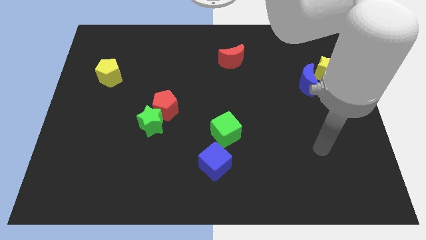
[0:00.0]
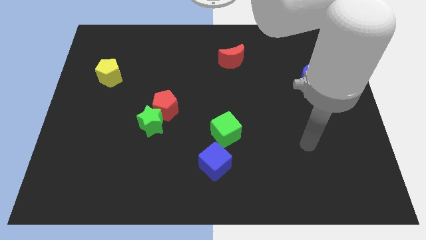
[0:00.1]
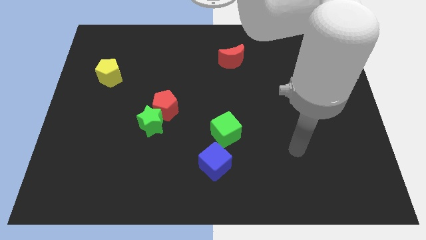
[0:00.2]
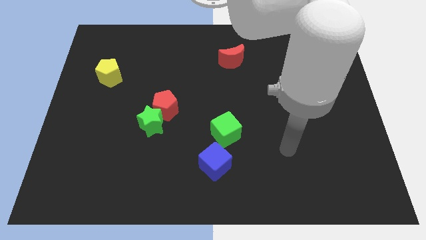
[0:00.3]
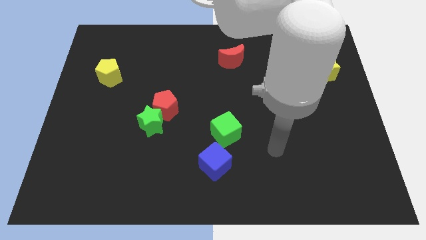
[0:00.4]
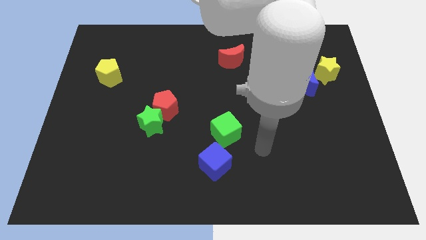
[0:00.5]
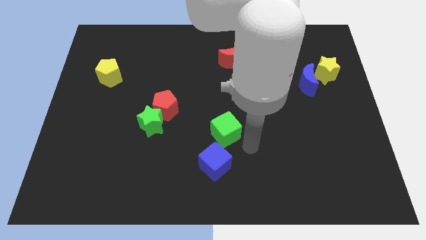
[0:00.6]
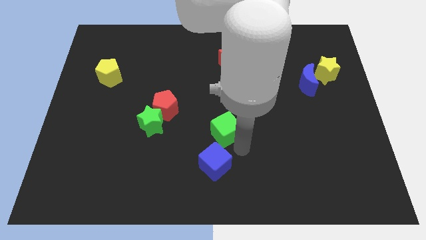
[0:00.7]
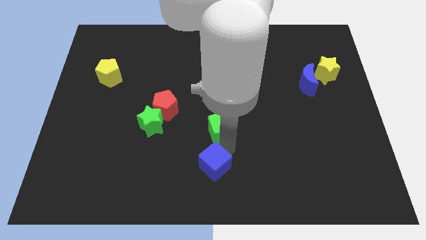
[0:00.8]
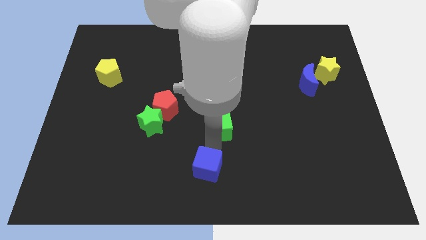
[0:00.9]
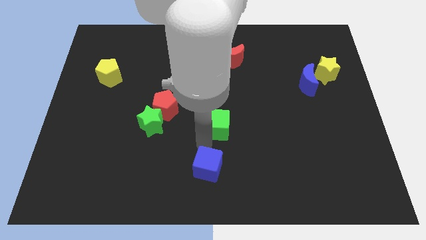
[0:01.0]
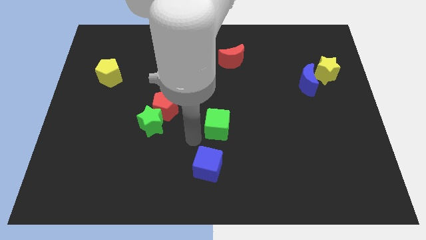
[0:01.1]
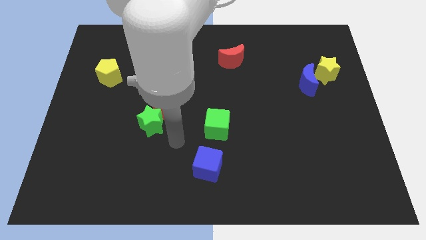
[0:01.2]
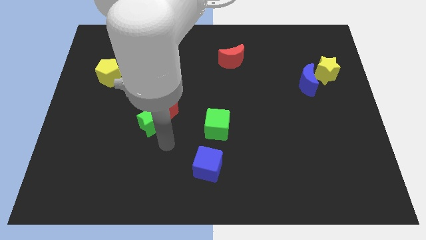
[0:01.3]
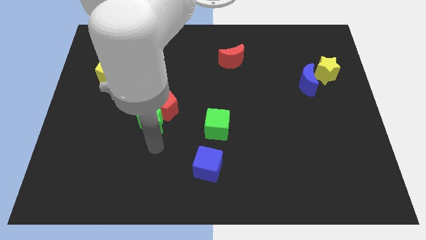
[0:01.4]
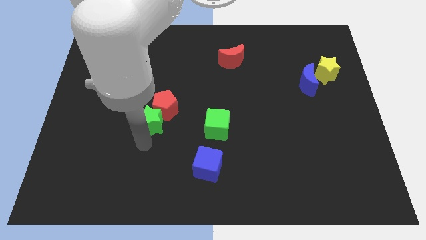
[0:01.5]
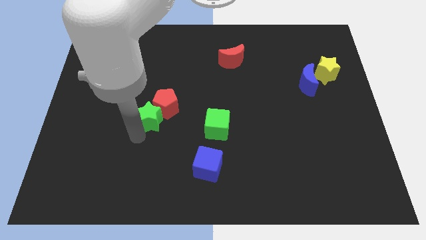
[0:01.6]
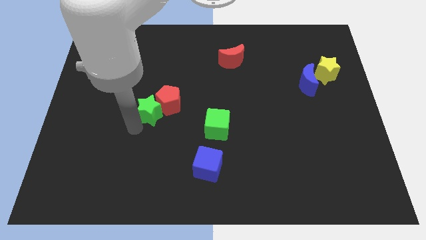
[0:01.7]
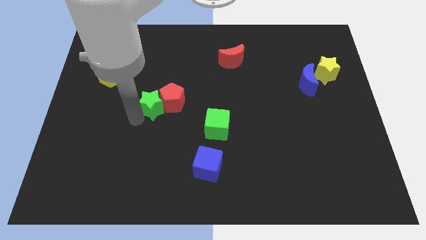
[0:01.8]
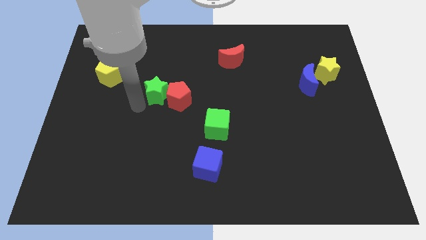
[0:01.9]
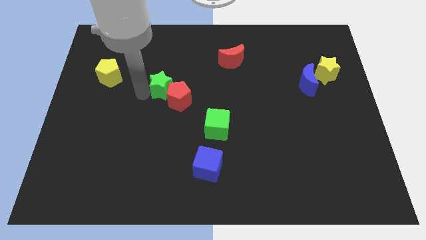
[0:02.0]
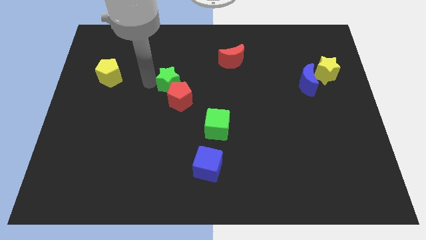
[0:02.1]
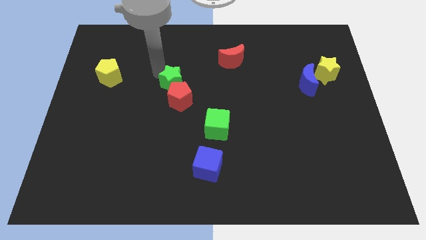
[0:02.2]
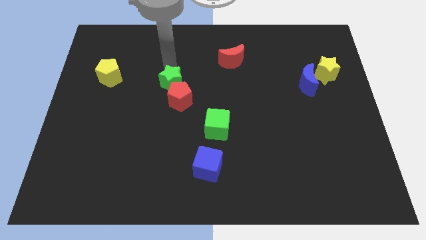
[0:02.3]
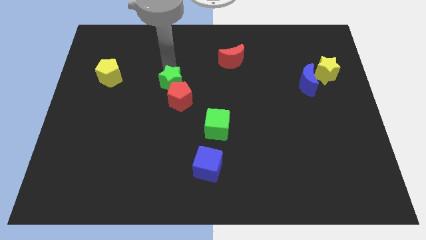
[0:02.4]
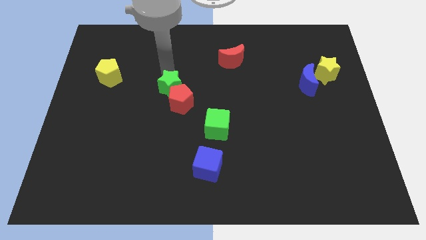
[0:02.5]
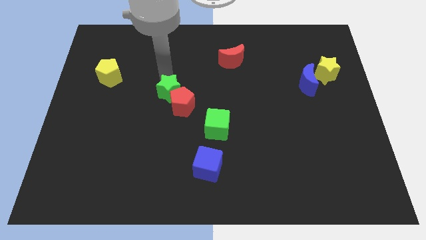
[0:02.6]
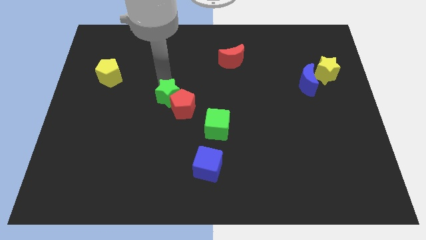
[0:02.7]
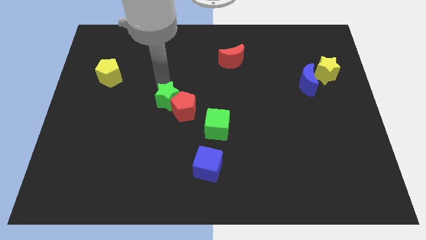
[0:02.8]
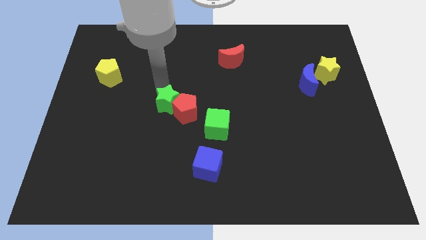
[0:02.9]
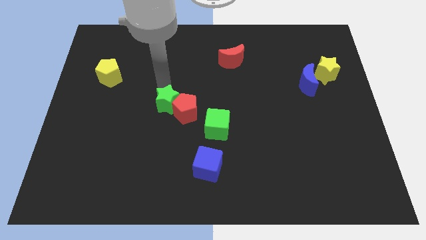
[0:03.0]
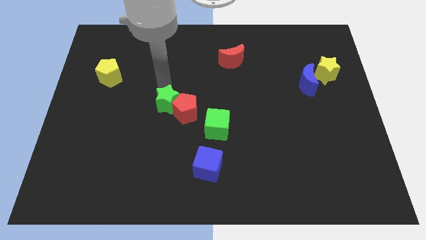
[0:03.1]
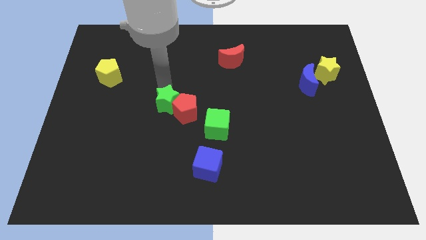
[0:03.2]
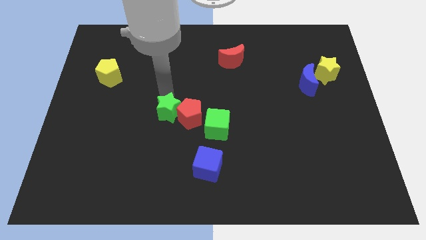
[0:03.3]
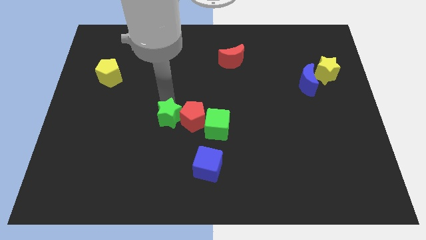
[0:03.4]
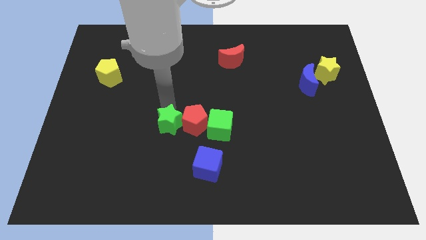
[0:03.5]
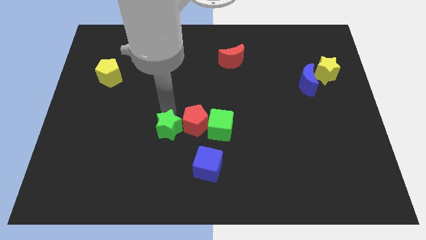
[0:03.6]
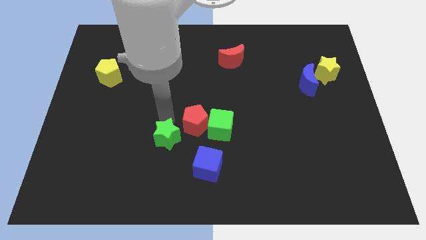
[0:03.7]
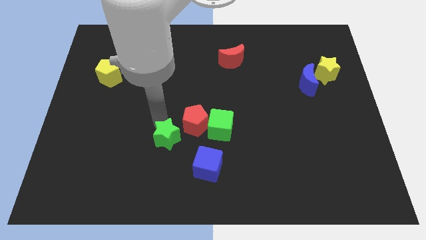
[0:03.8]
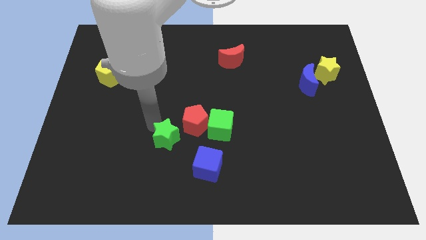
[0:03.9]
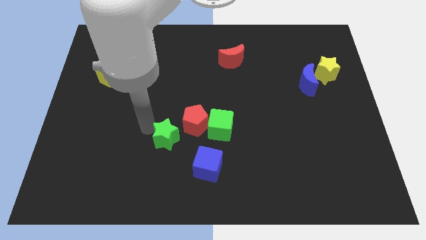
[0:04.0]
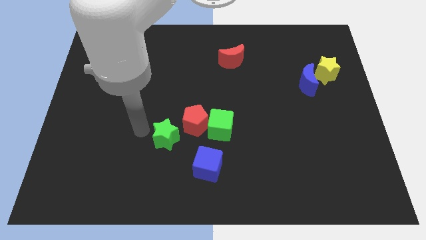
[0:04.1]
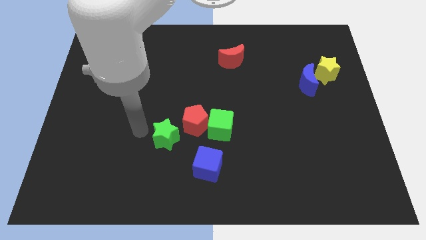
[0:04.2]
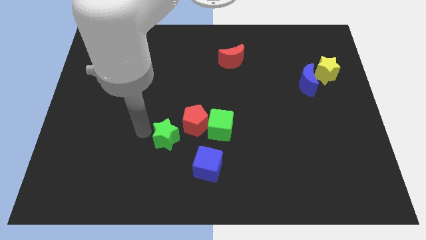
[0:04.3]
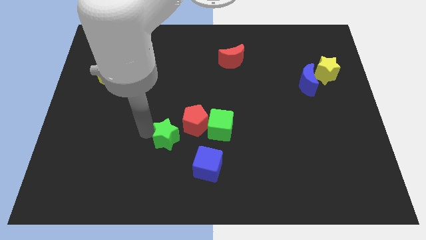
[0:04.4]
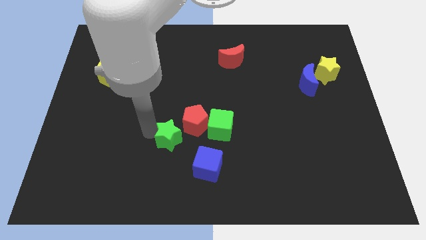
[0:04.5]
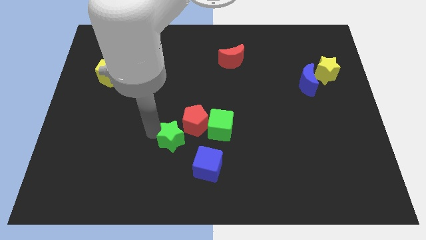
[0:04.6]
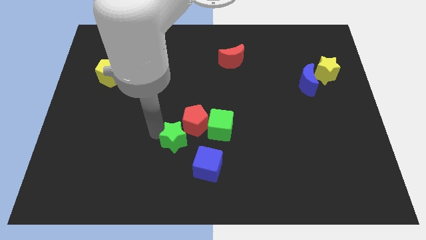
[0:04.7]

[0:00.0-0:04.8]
slide the green star to the bottom left side of the green cube

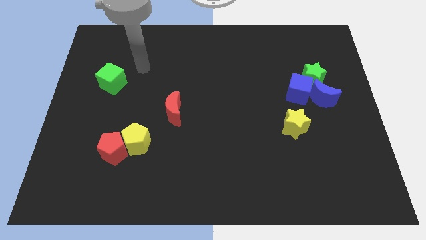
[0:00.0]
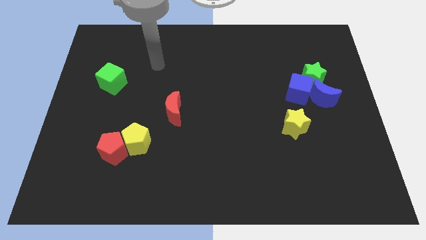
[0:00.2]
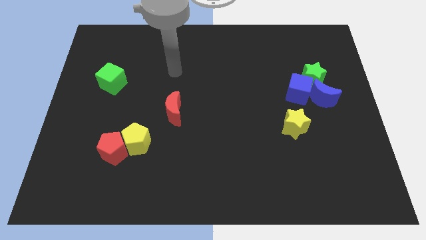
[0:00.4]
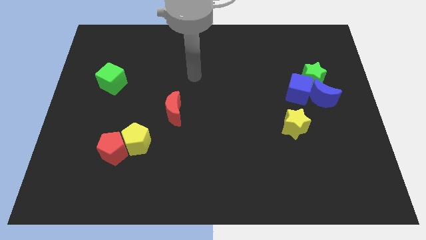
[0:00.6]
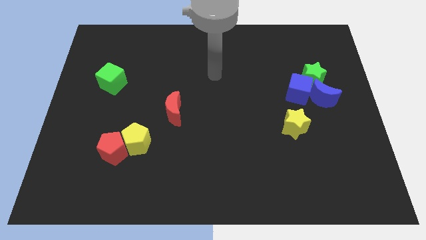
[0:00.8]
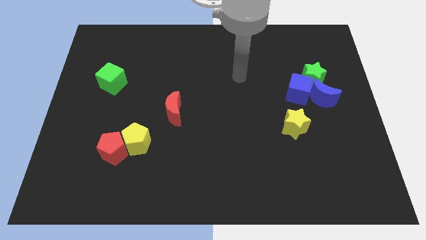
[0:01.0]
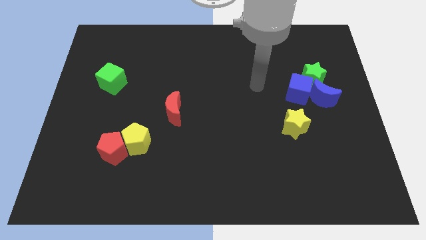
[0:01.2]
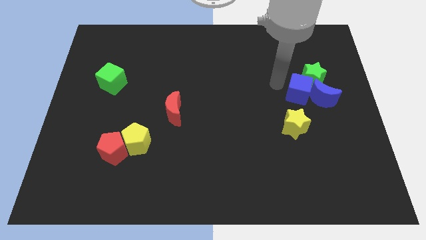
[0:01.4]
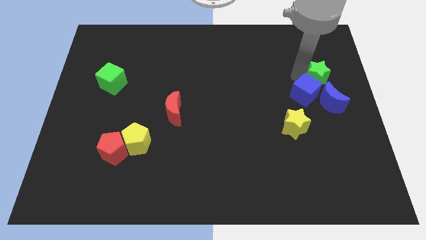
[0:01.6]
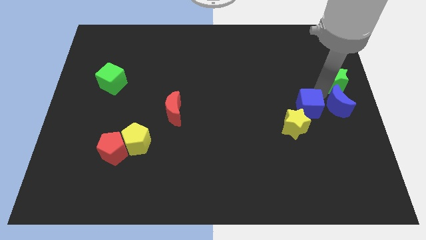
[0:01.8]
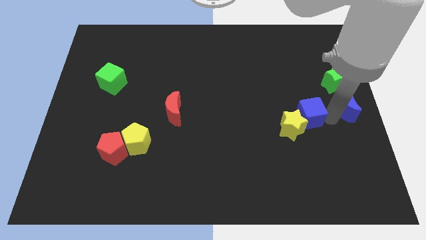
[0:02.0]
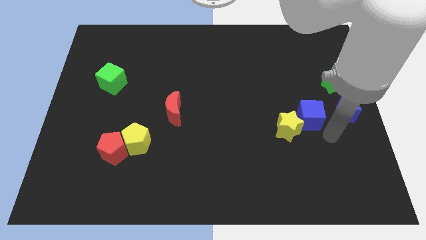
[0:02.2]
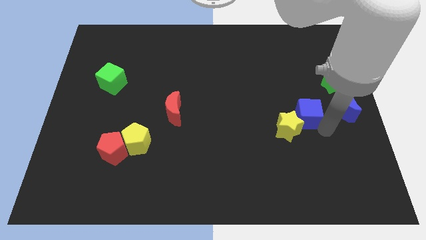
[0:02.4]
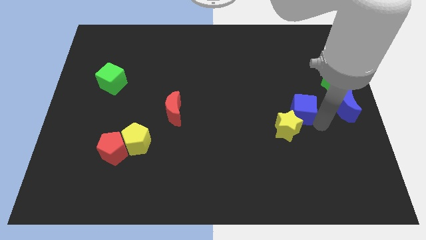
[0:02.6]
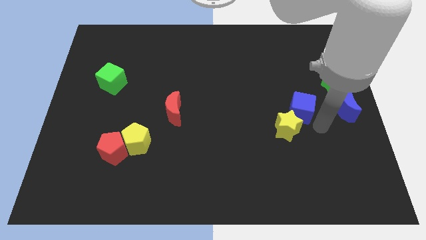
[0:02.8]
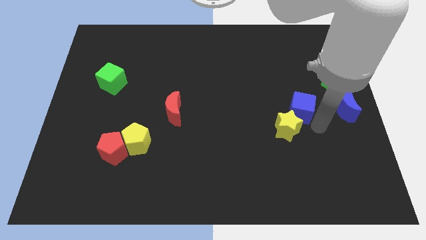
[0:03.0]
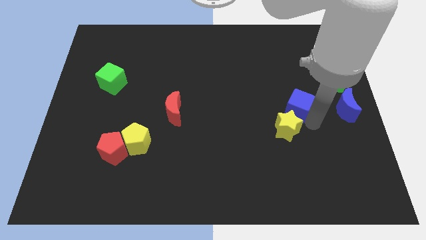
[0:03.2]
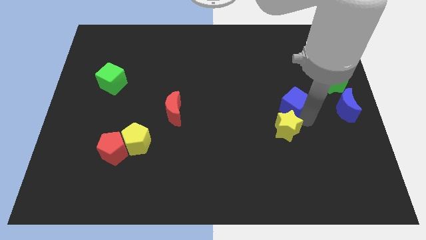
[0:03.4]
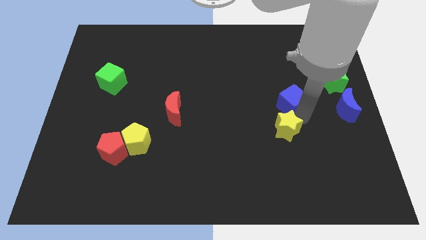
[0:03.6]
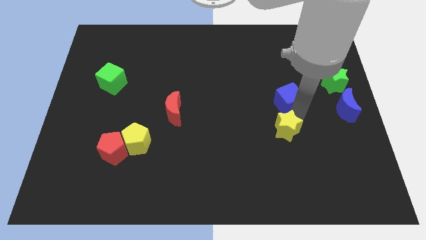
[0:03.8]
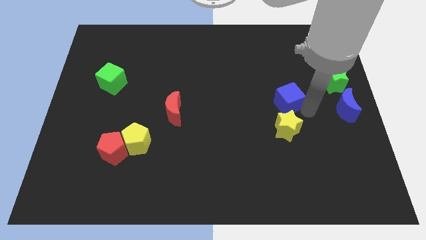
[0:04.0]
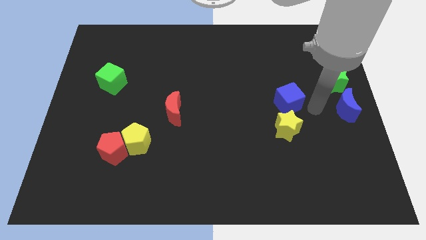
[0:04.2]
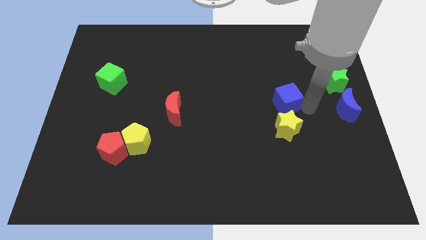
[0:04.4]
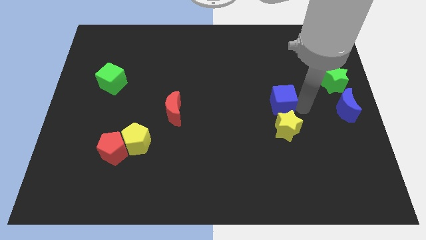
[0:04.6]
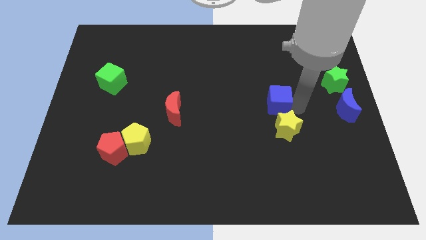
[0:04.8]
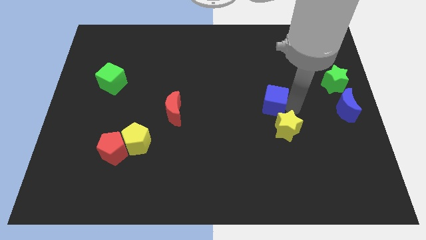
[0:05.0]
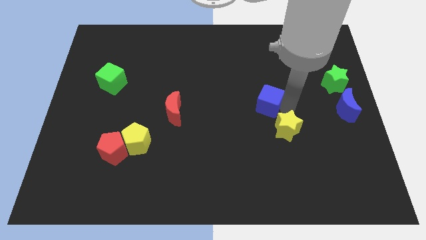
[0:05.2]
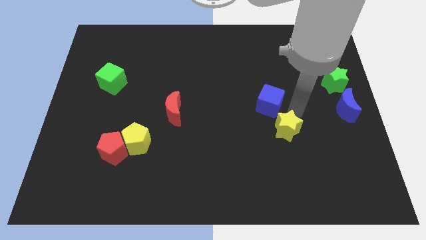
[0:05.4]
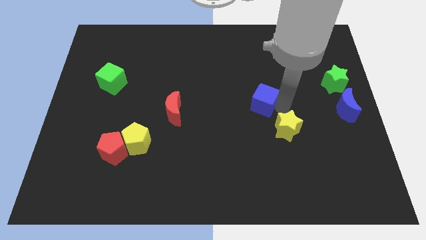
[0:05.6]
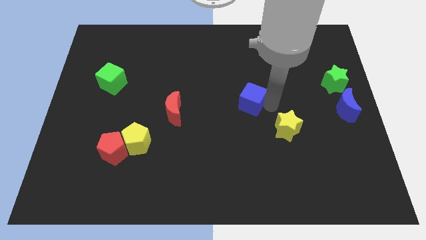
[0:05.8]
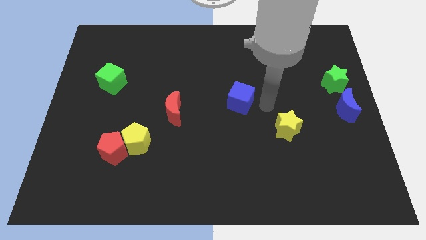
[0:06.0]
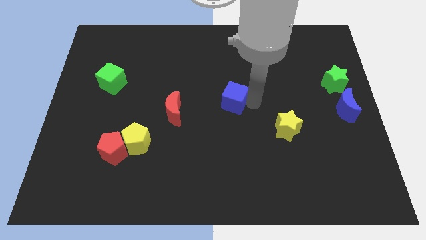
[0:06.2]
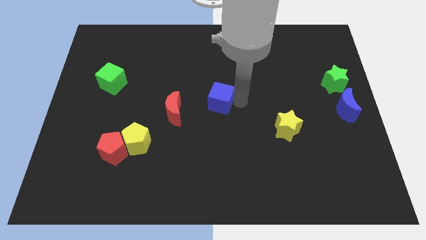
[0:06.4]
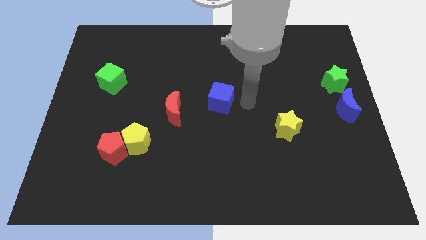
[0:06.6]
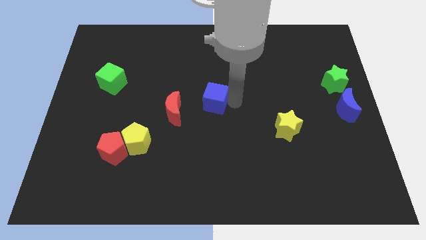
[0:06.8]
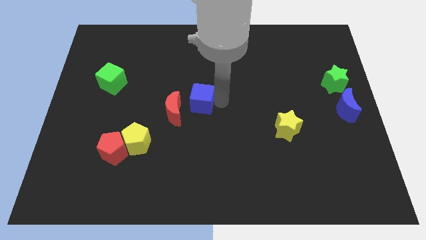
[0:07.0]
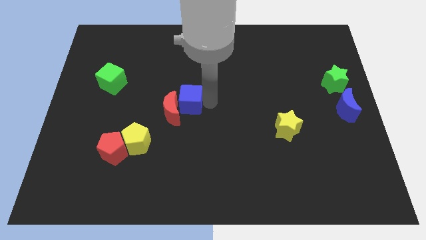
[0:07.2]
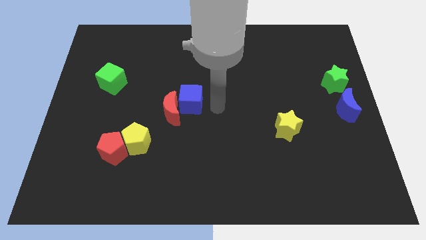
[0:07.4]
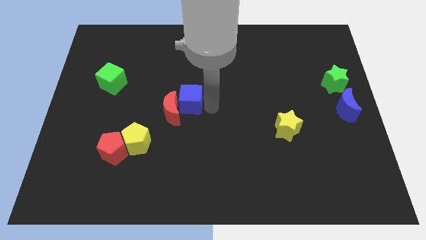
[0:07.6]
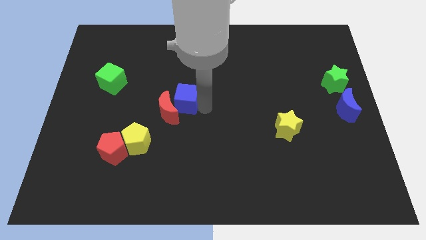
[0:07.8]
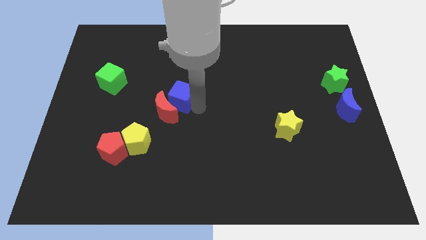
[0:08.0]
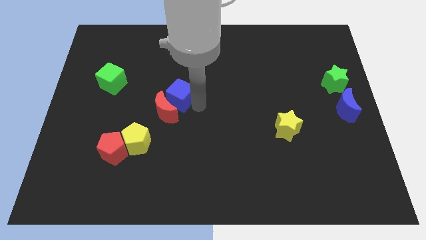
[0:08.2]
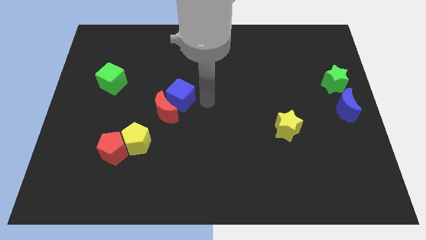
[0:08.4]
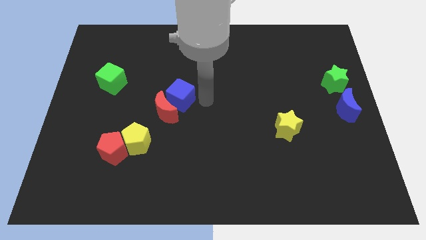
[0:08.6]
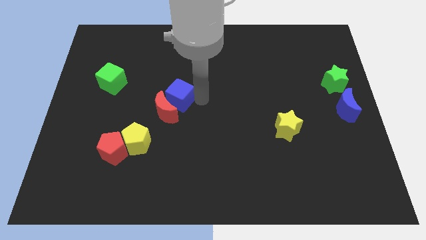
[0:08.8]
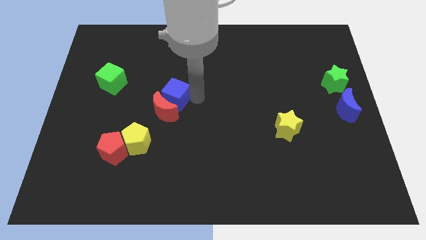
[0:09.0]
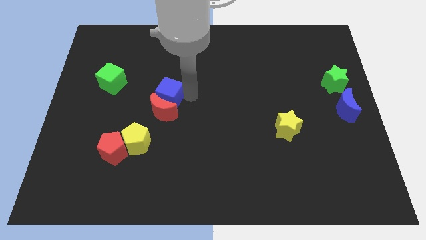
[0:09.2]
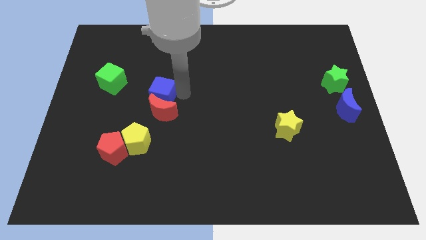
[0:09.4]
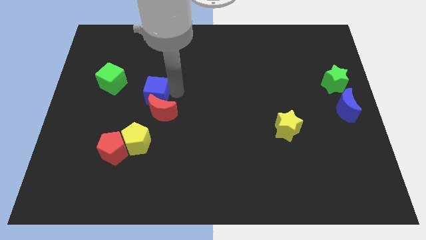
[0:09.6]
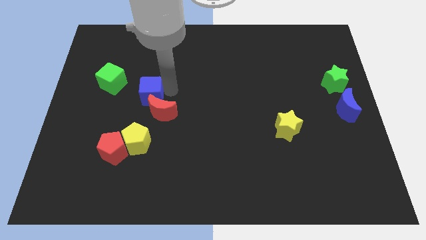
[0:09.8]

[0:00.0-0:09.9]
slide the blue cube to the bottom right of the green cube
